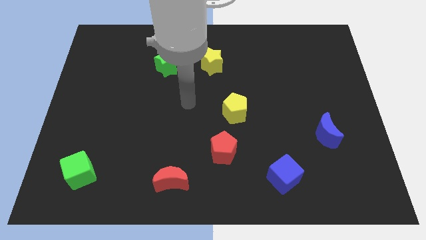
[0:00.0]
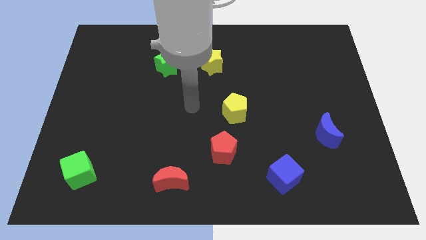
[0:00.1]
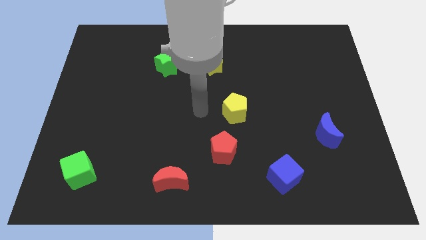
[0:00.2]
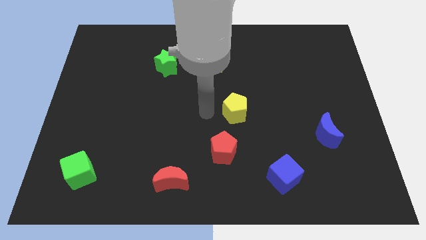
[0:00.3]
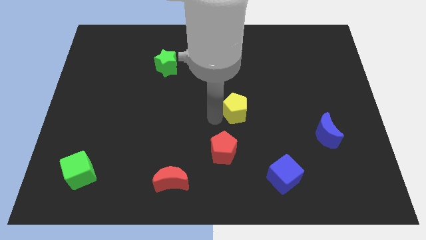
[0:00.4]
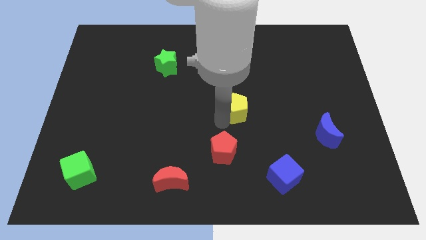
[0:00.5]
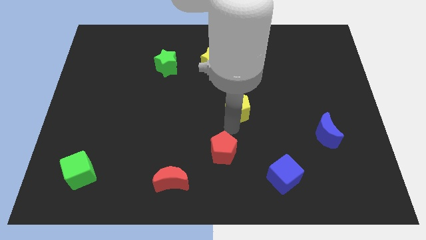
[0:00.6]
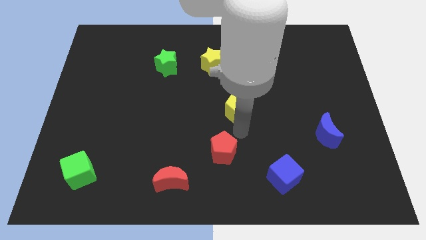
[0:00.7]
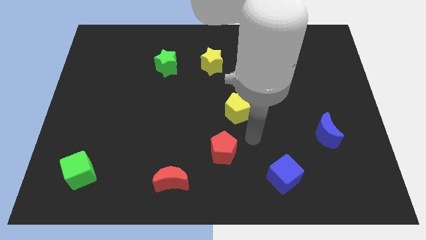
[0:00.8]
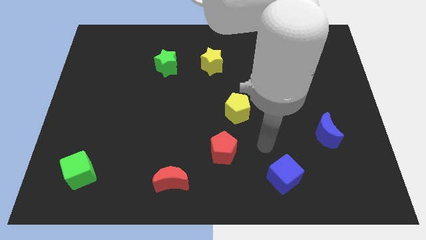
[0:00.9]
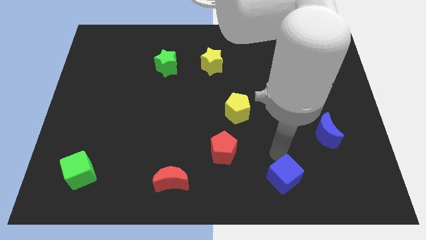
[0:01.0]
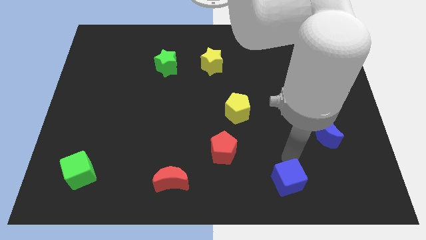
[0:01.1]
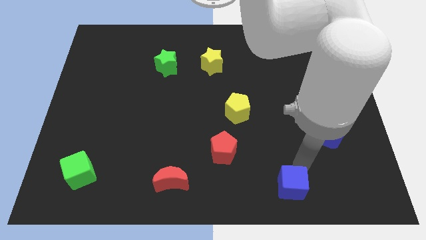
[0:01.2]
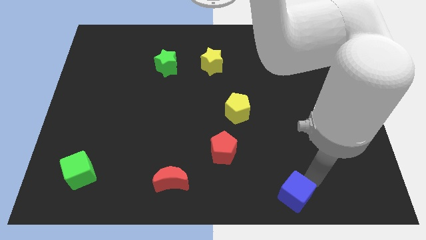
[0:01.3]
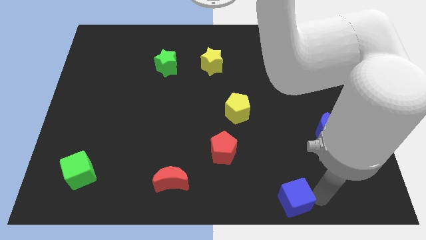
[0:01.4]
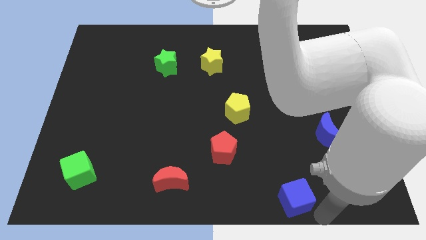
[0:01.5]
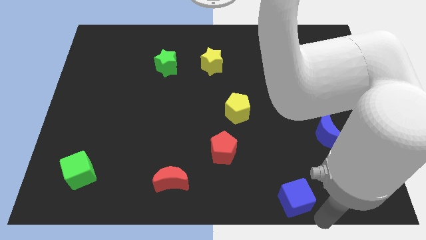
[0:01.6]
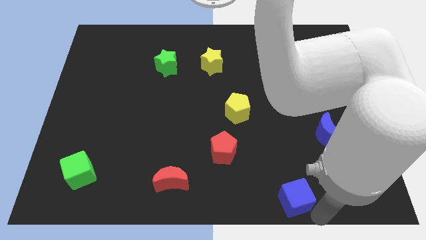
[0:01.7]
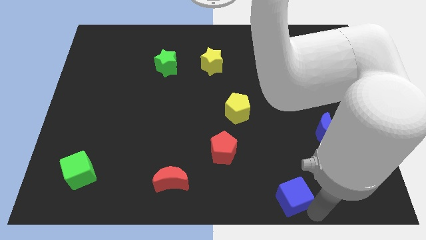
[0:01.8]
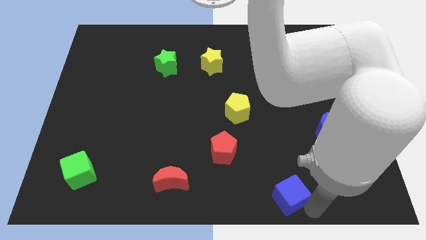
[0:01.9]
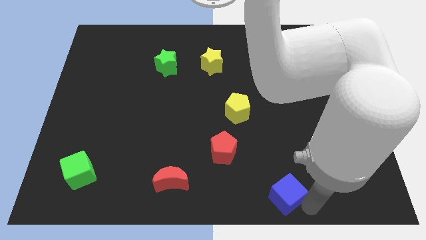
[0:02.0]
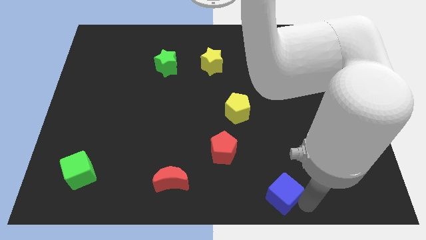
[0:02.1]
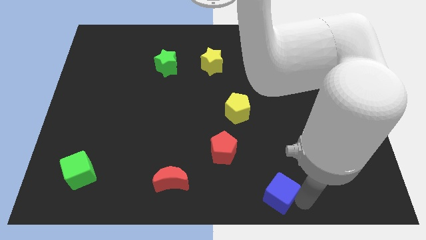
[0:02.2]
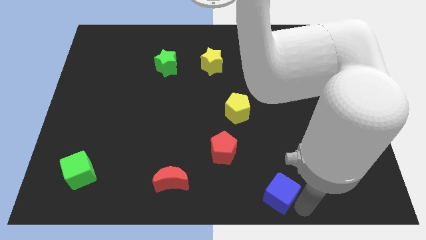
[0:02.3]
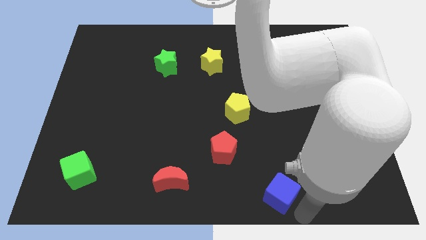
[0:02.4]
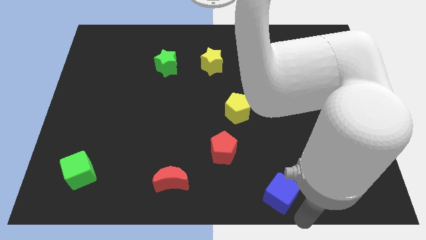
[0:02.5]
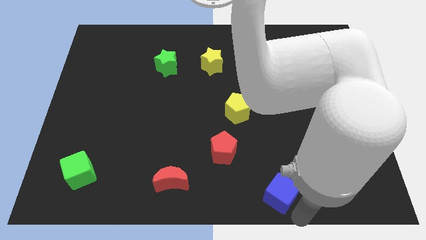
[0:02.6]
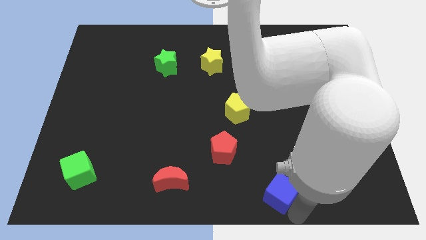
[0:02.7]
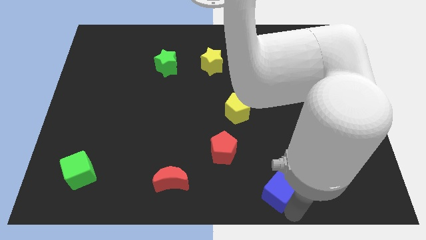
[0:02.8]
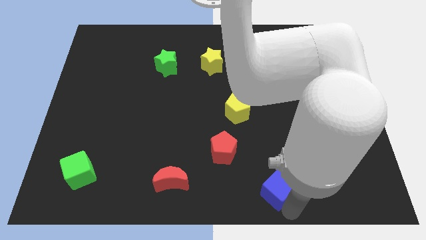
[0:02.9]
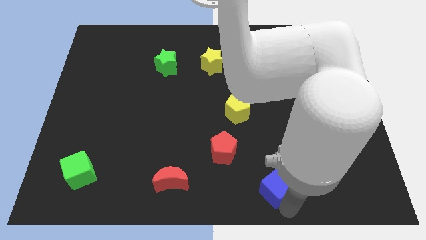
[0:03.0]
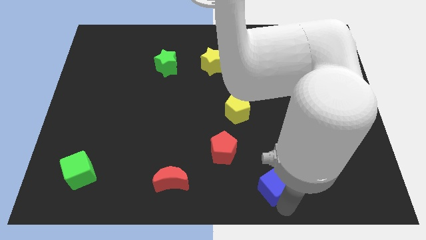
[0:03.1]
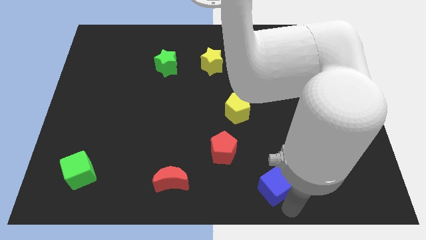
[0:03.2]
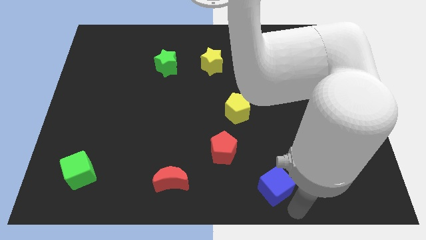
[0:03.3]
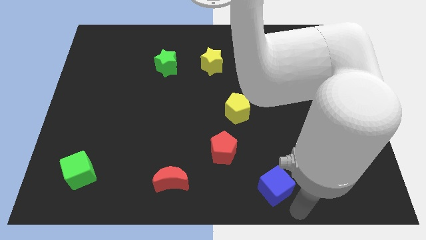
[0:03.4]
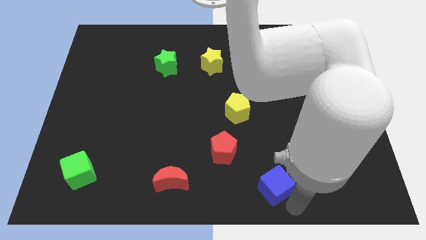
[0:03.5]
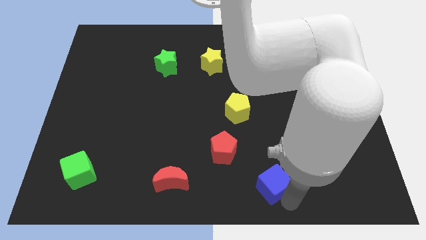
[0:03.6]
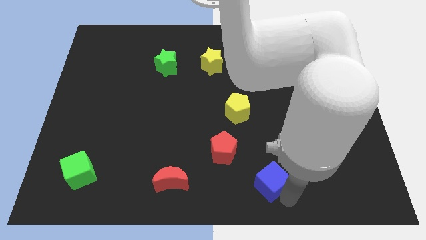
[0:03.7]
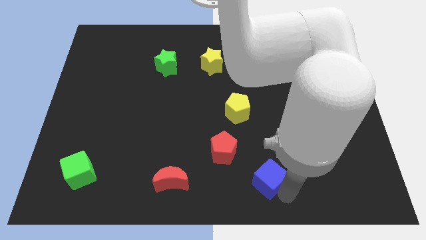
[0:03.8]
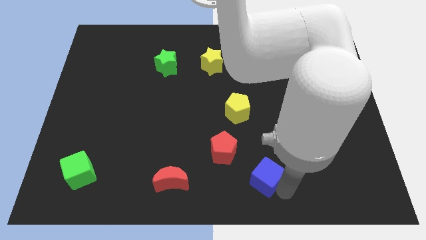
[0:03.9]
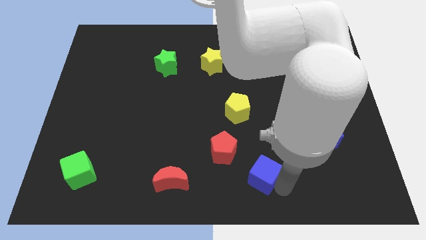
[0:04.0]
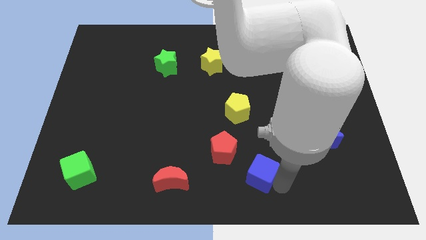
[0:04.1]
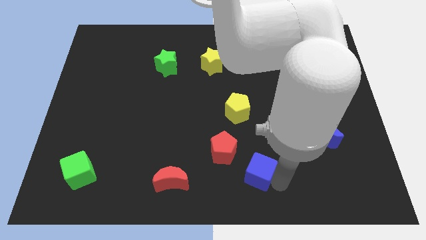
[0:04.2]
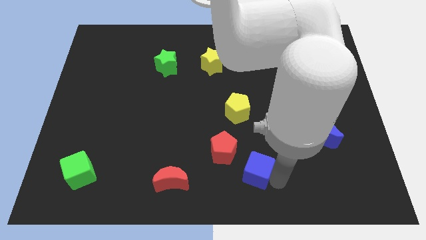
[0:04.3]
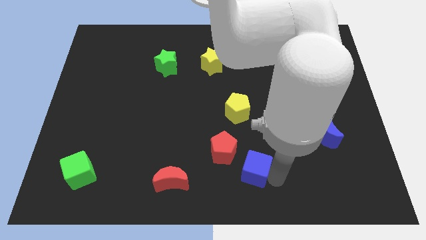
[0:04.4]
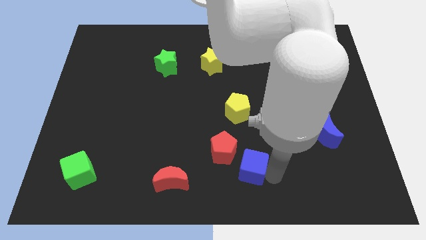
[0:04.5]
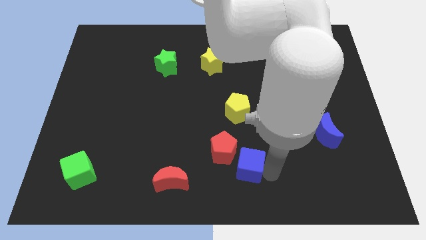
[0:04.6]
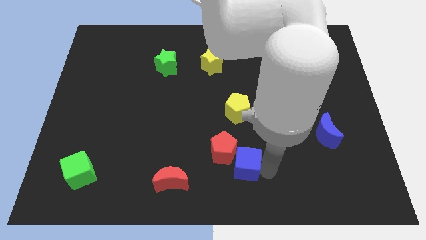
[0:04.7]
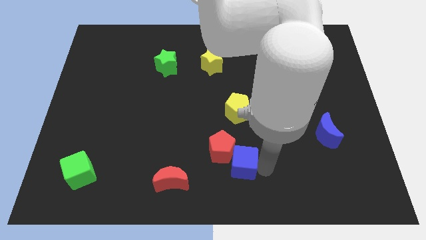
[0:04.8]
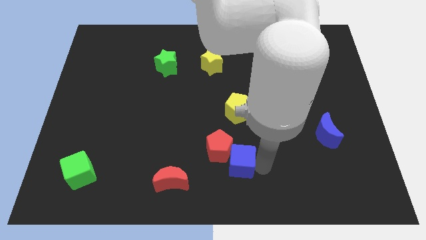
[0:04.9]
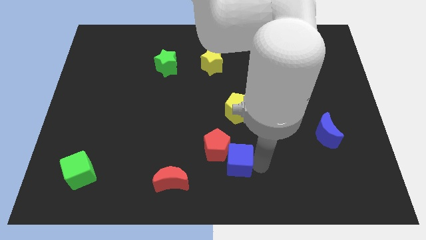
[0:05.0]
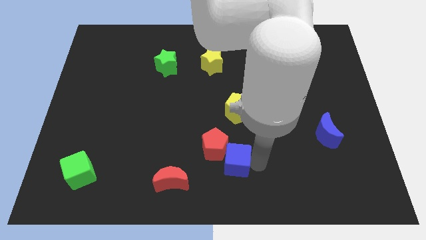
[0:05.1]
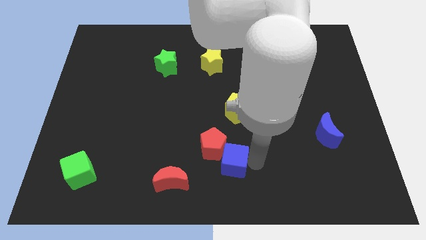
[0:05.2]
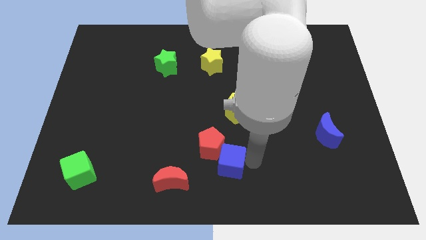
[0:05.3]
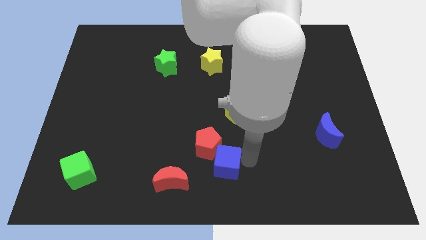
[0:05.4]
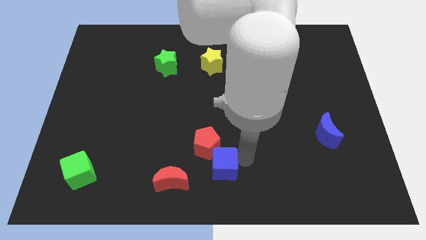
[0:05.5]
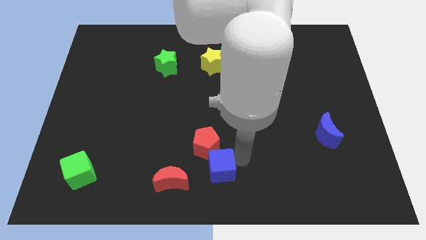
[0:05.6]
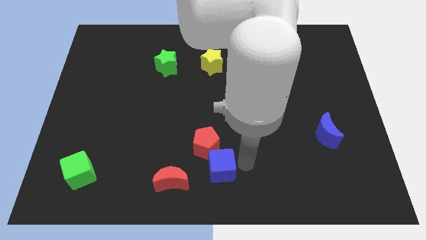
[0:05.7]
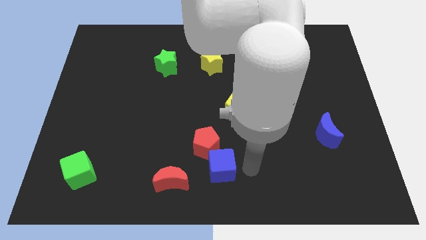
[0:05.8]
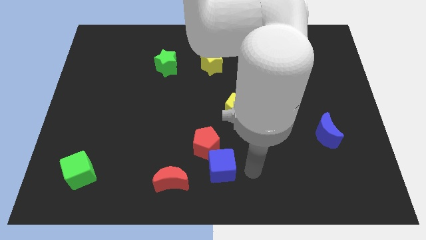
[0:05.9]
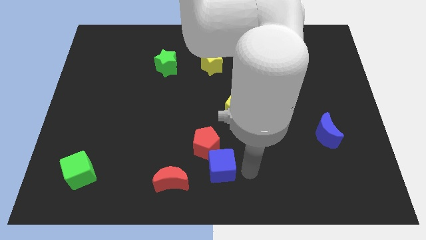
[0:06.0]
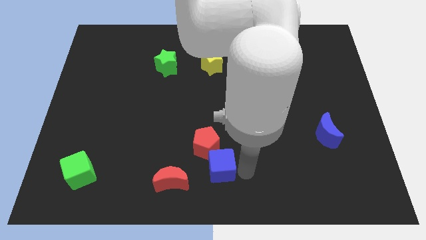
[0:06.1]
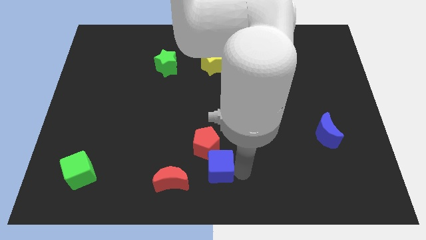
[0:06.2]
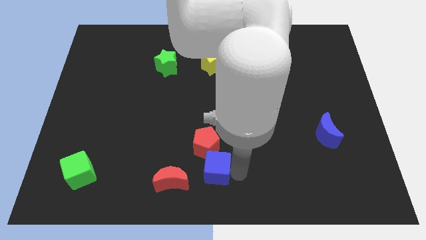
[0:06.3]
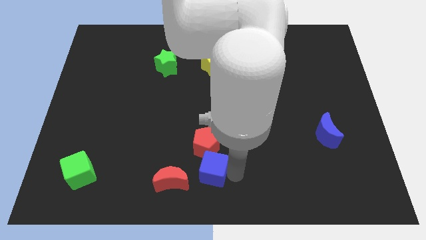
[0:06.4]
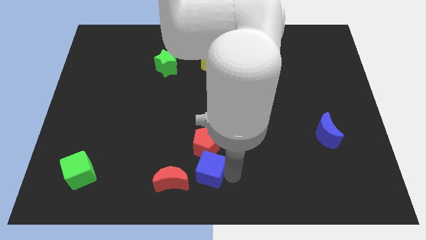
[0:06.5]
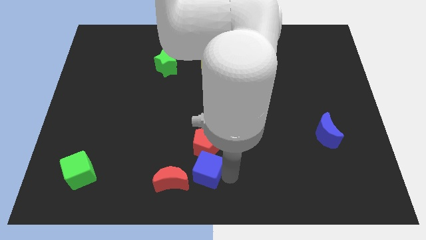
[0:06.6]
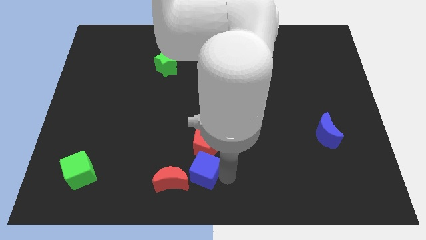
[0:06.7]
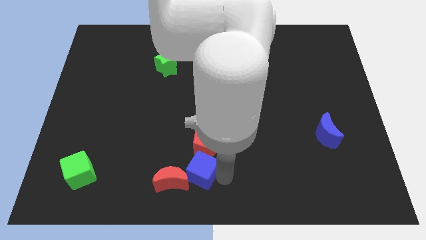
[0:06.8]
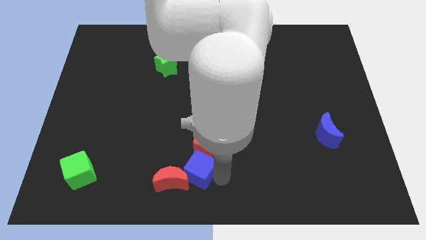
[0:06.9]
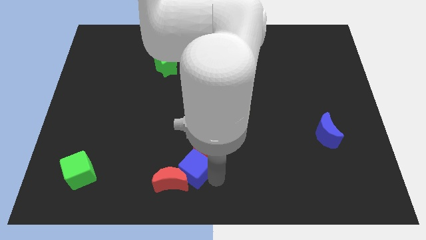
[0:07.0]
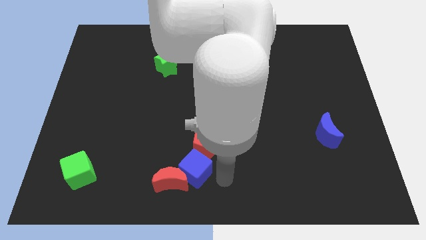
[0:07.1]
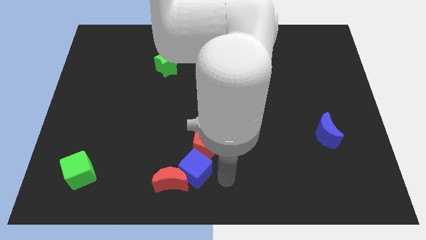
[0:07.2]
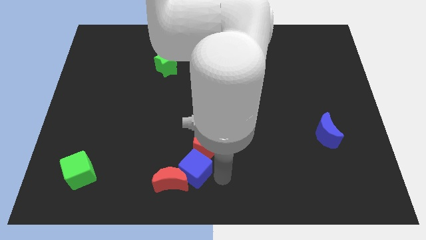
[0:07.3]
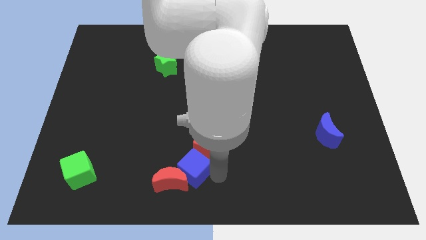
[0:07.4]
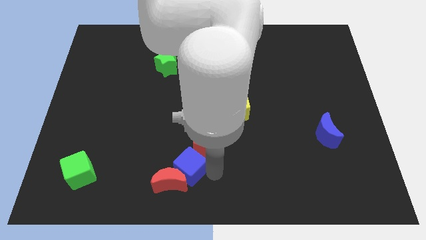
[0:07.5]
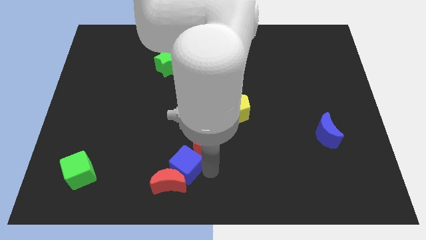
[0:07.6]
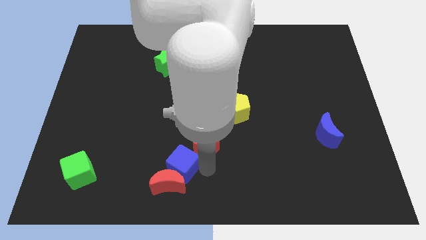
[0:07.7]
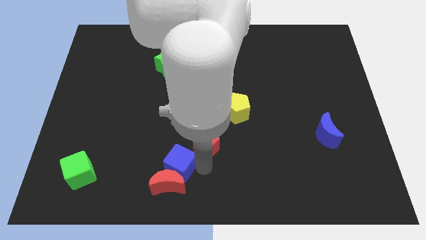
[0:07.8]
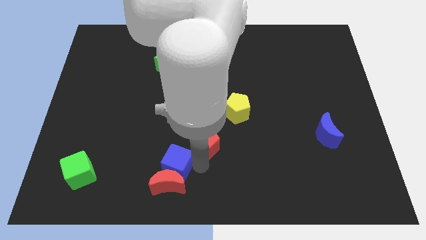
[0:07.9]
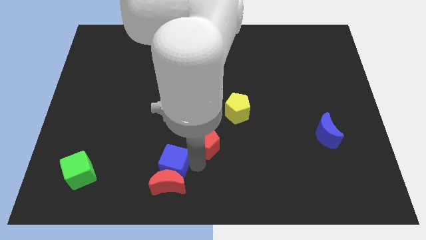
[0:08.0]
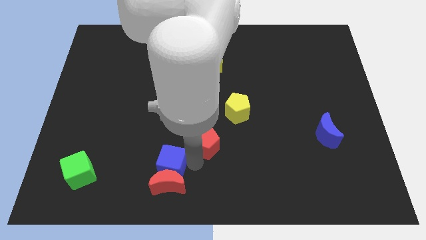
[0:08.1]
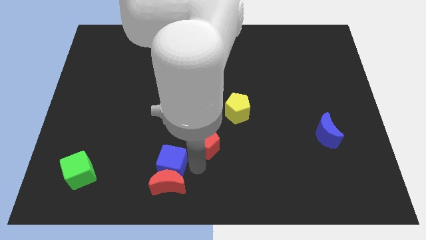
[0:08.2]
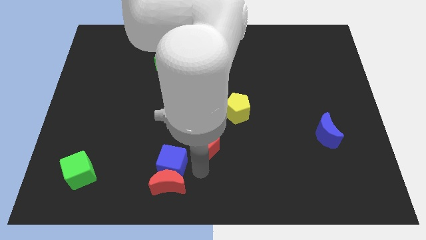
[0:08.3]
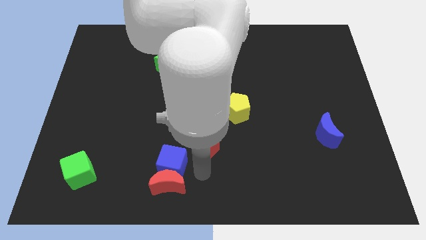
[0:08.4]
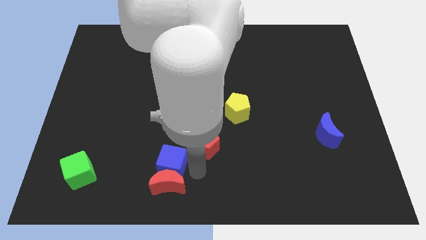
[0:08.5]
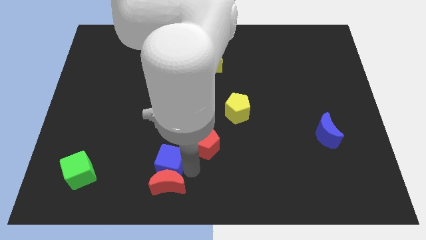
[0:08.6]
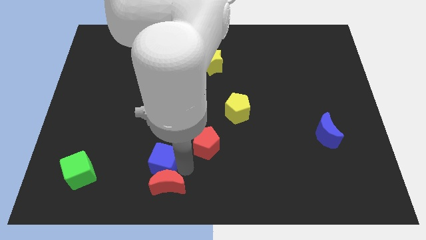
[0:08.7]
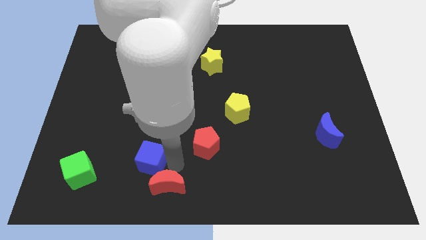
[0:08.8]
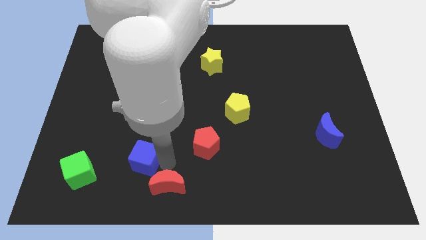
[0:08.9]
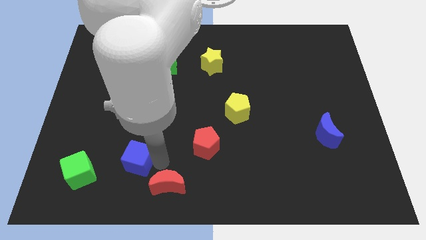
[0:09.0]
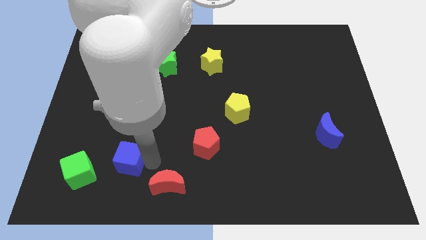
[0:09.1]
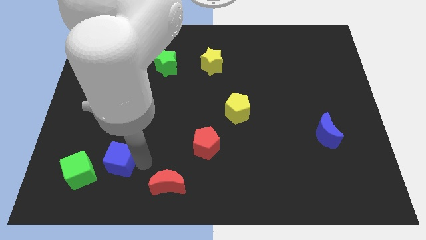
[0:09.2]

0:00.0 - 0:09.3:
put the blue cube to the top right of the green cube
